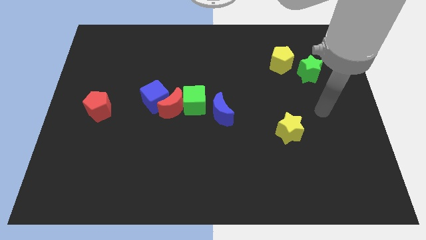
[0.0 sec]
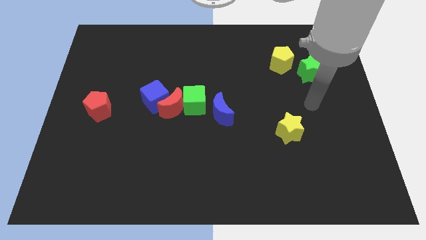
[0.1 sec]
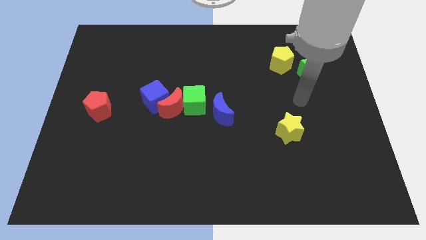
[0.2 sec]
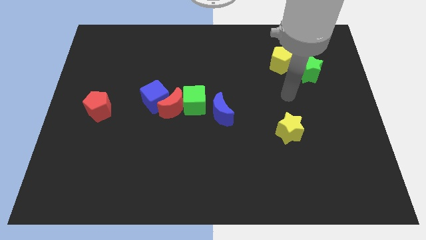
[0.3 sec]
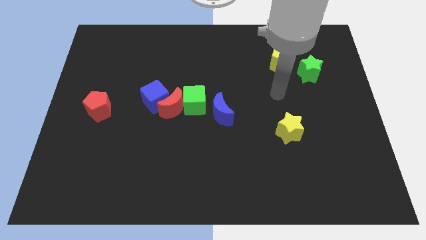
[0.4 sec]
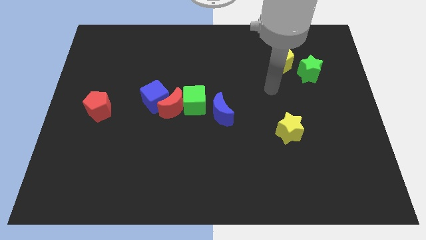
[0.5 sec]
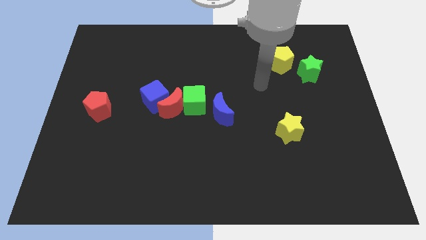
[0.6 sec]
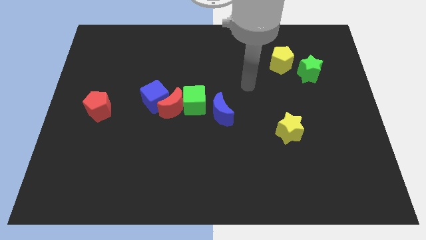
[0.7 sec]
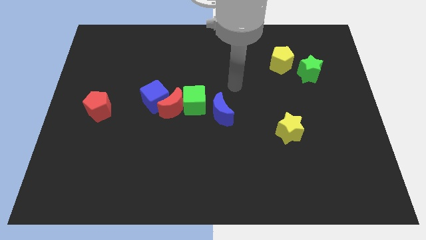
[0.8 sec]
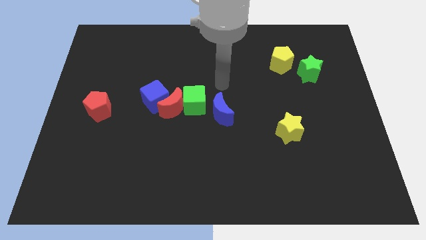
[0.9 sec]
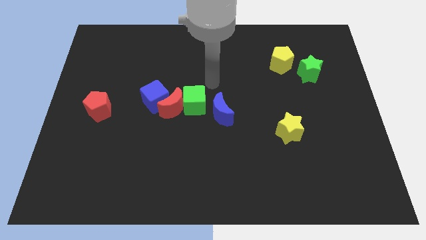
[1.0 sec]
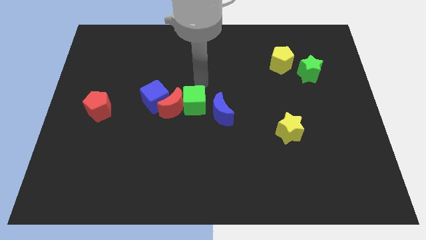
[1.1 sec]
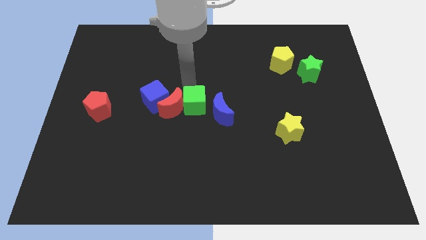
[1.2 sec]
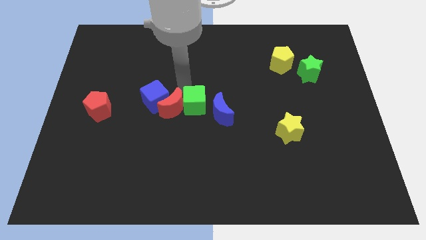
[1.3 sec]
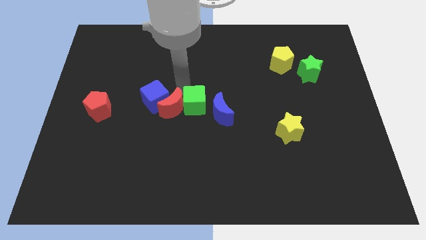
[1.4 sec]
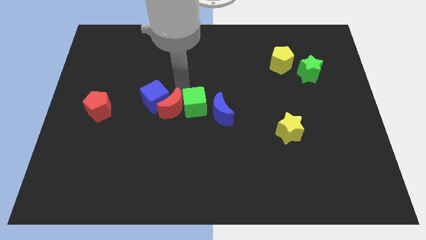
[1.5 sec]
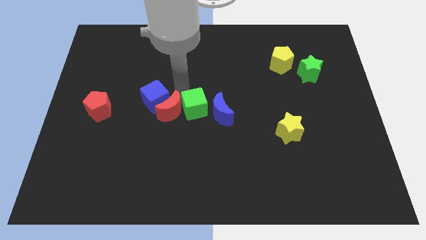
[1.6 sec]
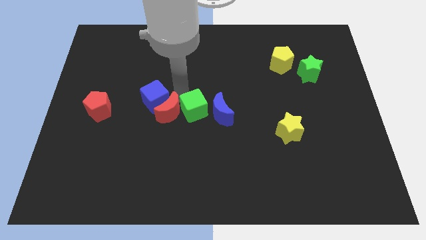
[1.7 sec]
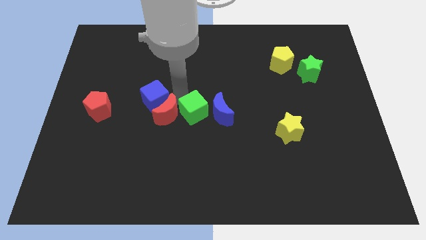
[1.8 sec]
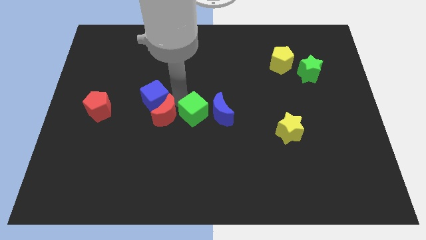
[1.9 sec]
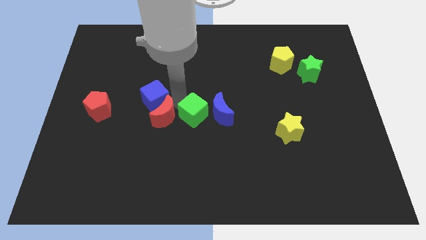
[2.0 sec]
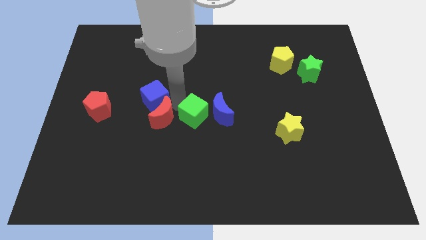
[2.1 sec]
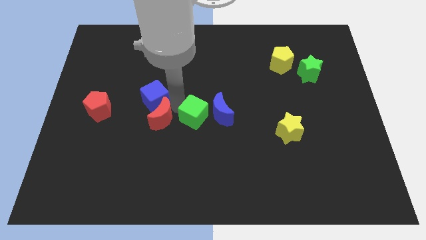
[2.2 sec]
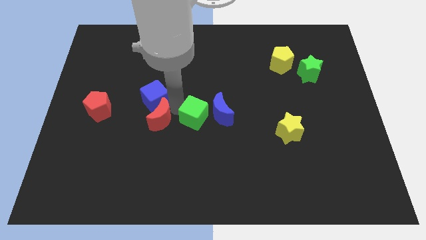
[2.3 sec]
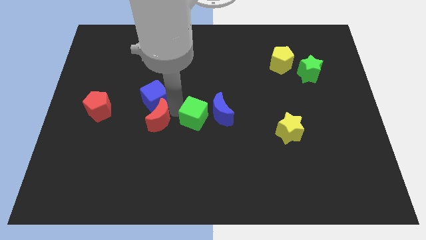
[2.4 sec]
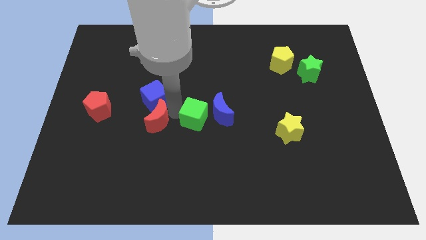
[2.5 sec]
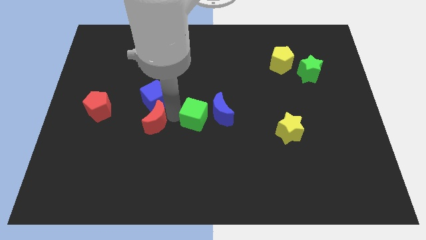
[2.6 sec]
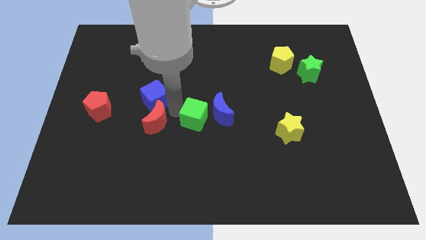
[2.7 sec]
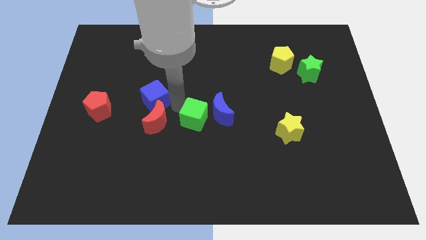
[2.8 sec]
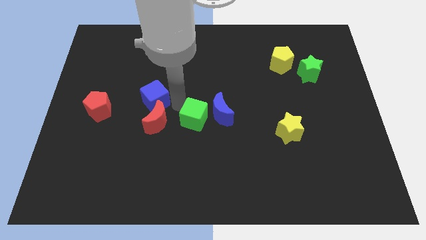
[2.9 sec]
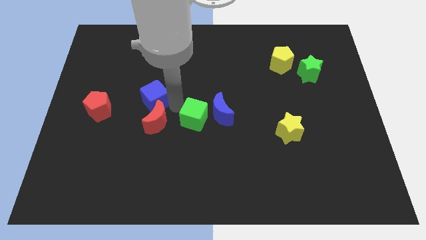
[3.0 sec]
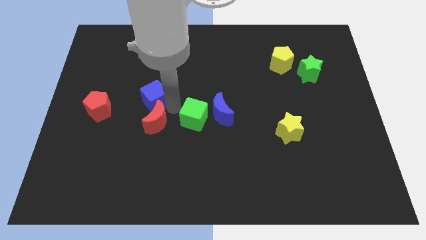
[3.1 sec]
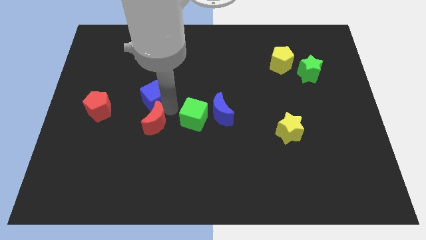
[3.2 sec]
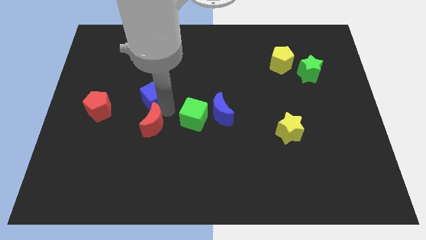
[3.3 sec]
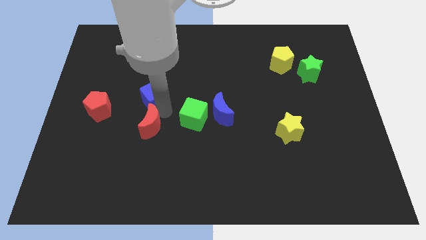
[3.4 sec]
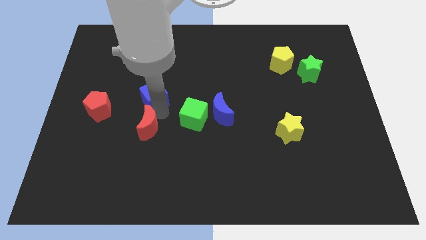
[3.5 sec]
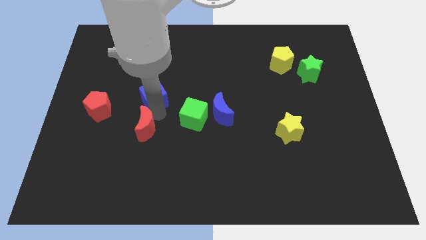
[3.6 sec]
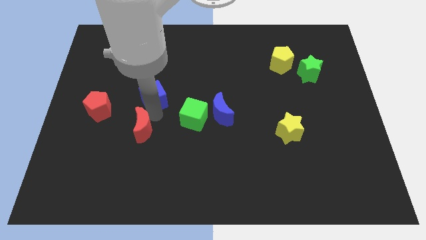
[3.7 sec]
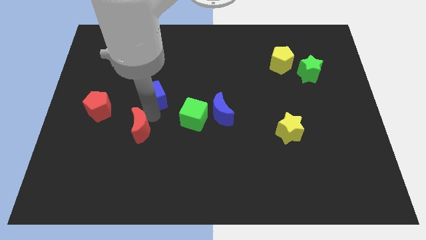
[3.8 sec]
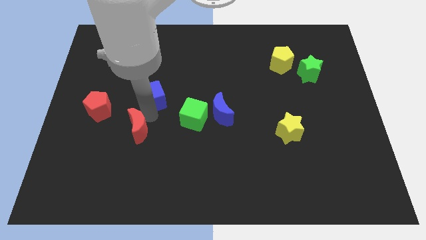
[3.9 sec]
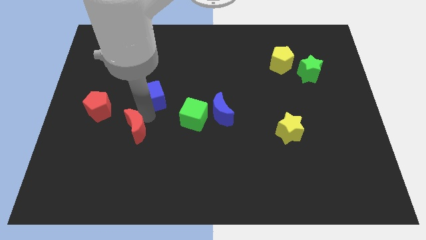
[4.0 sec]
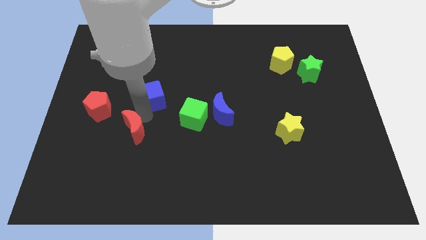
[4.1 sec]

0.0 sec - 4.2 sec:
move the red moon away from the blue cube and green cube

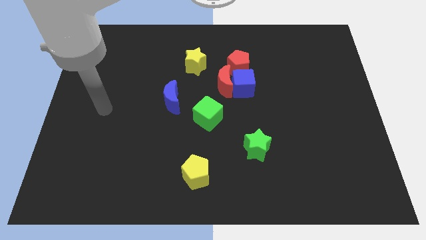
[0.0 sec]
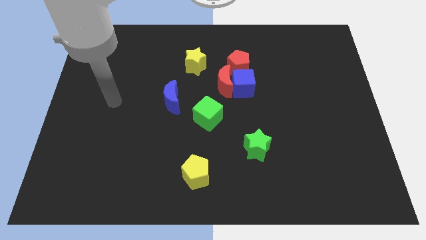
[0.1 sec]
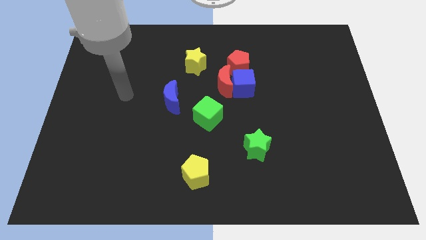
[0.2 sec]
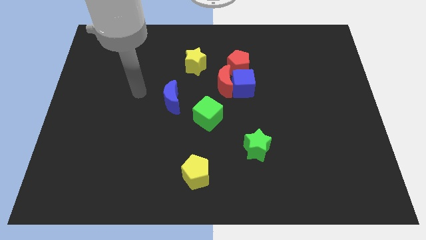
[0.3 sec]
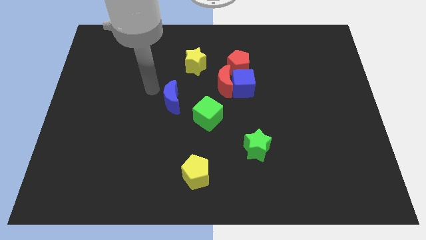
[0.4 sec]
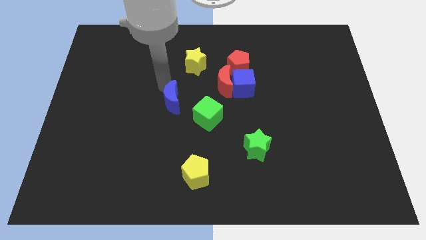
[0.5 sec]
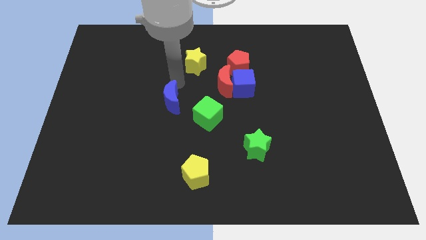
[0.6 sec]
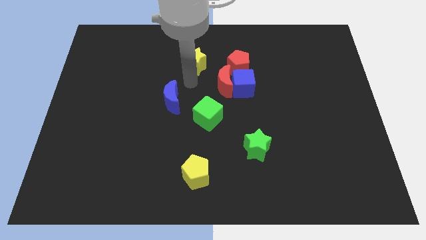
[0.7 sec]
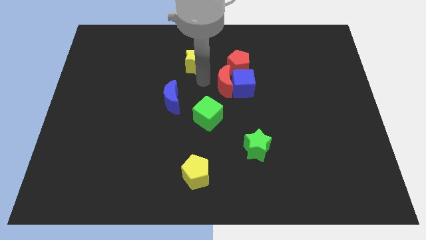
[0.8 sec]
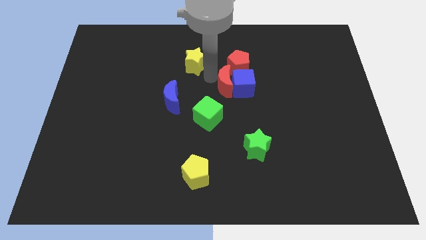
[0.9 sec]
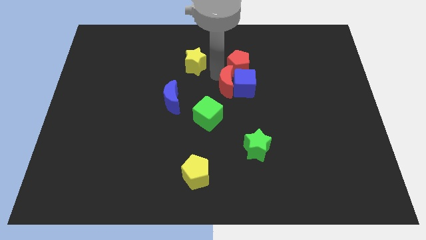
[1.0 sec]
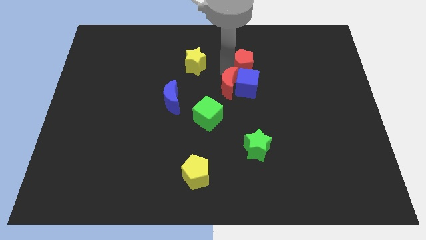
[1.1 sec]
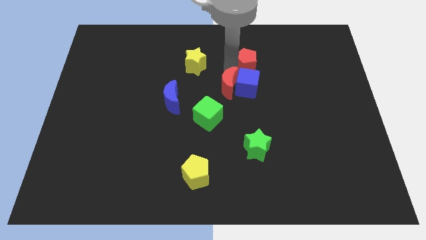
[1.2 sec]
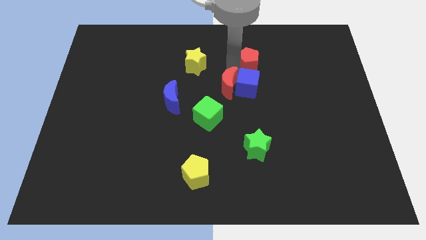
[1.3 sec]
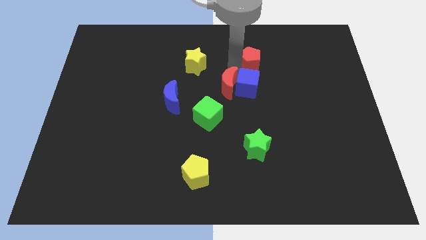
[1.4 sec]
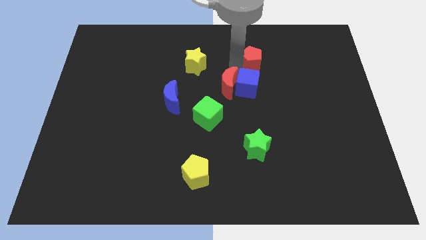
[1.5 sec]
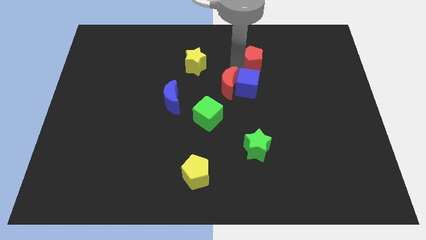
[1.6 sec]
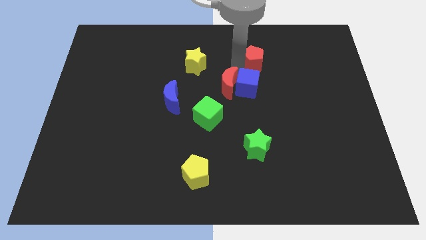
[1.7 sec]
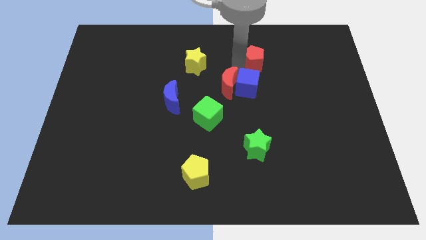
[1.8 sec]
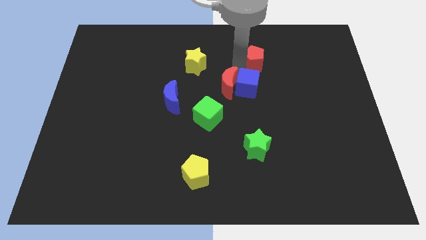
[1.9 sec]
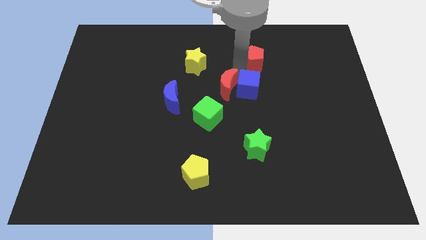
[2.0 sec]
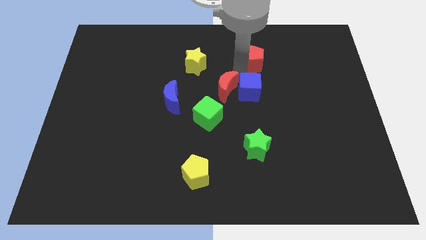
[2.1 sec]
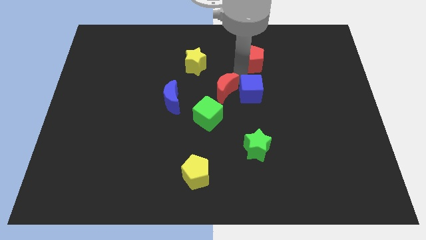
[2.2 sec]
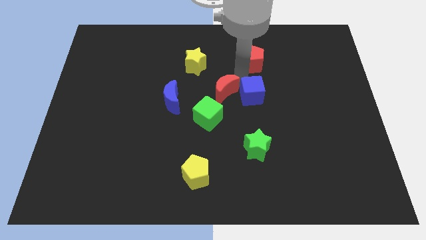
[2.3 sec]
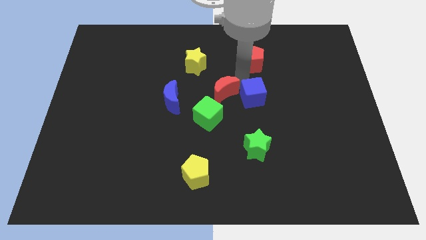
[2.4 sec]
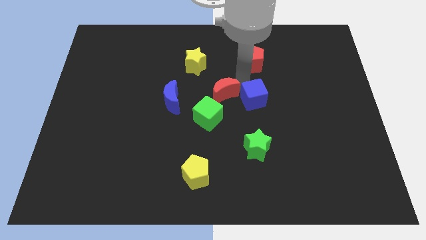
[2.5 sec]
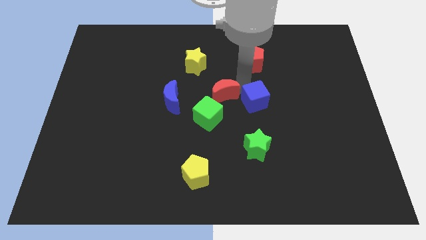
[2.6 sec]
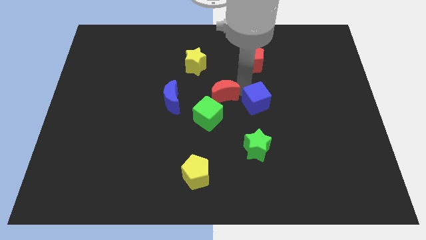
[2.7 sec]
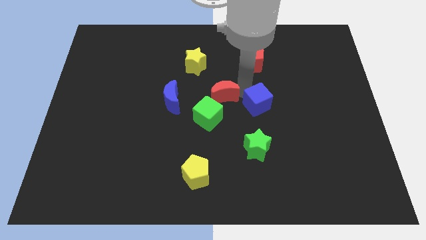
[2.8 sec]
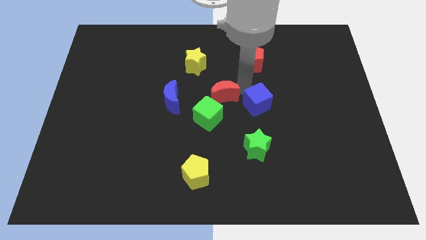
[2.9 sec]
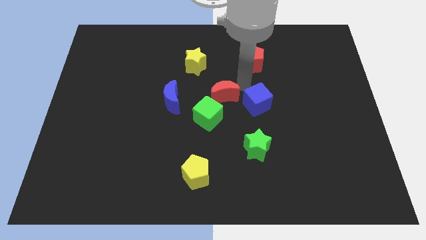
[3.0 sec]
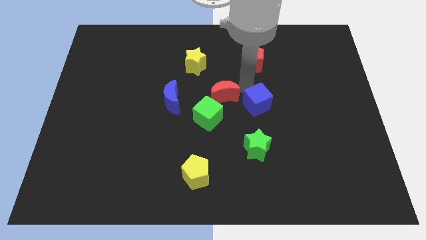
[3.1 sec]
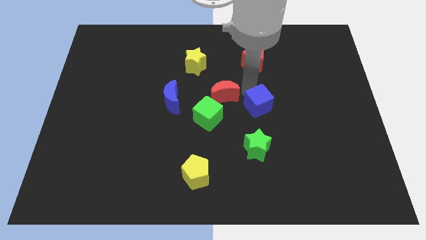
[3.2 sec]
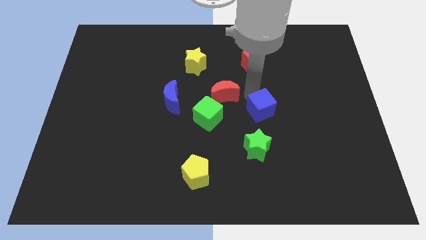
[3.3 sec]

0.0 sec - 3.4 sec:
separate the blue cube from the red moon and red pentagon

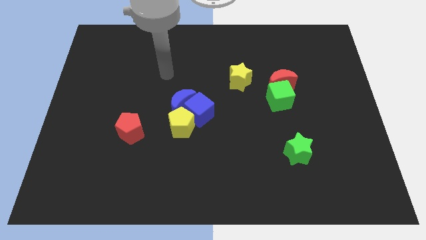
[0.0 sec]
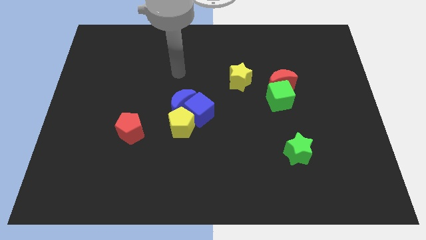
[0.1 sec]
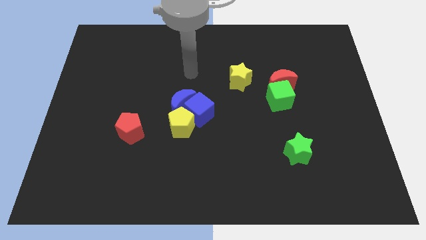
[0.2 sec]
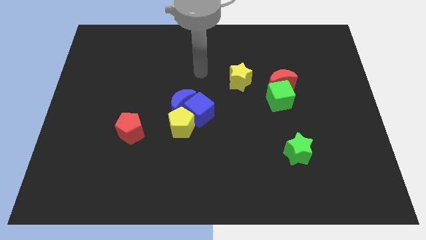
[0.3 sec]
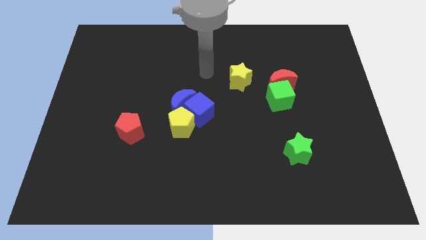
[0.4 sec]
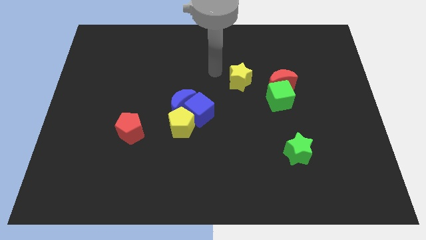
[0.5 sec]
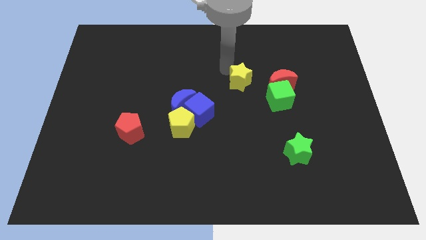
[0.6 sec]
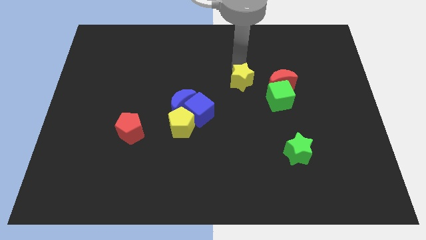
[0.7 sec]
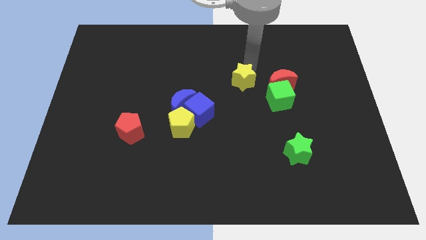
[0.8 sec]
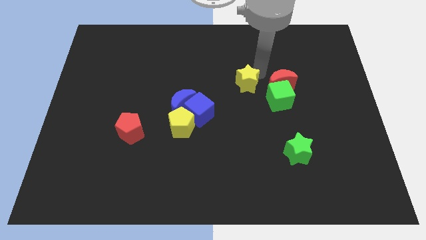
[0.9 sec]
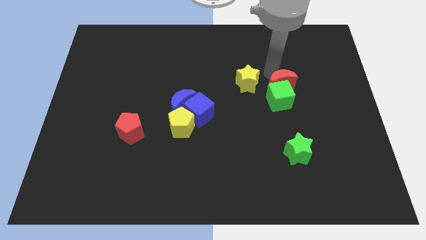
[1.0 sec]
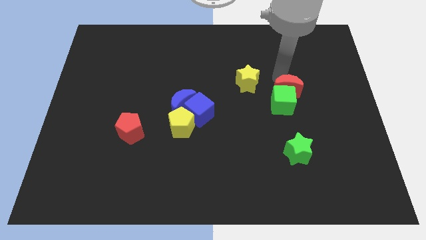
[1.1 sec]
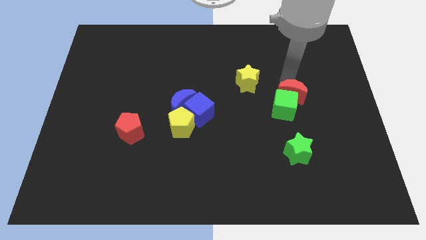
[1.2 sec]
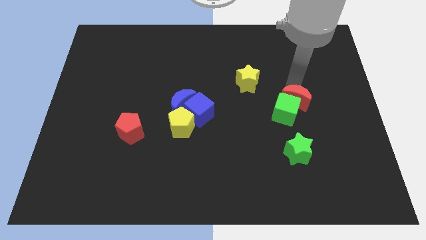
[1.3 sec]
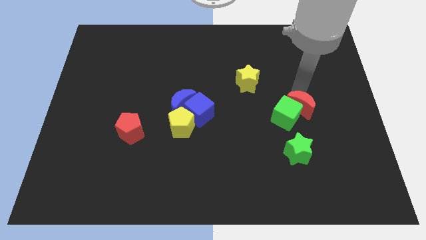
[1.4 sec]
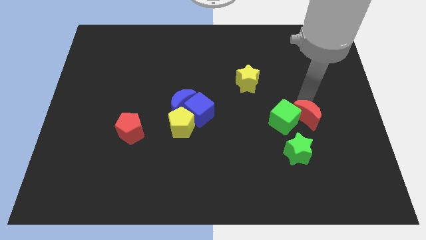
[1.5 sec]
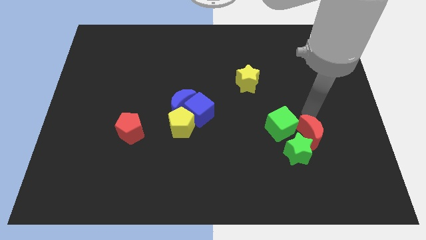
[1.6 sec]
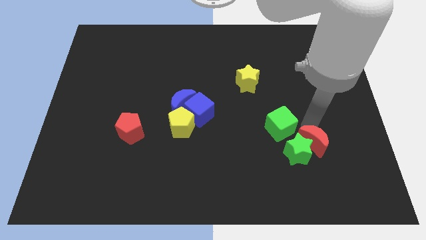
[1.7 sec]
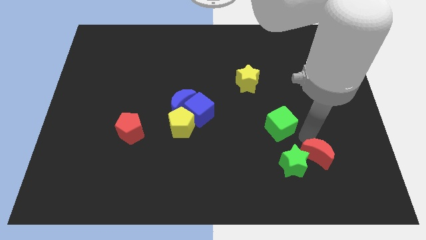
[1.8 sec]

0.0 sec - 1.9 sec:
move the green cube away from the red moon
